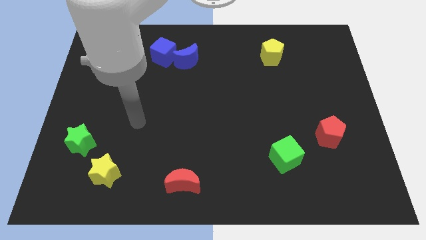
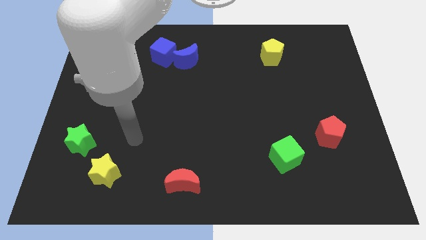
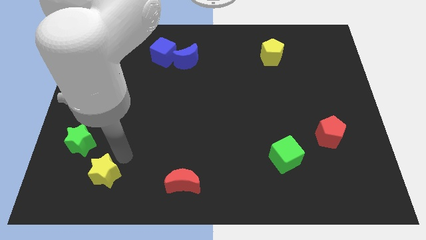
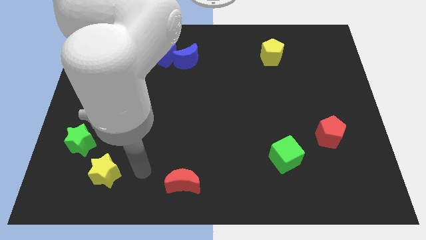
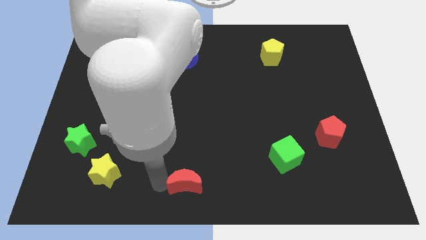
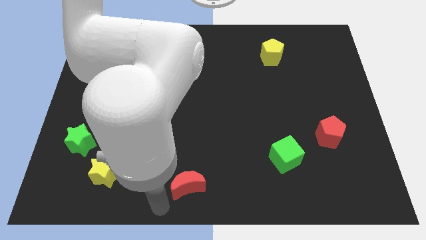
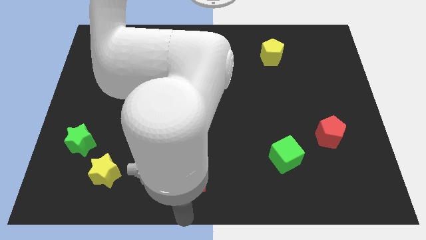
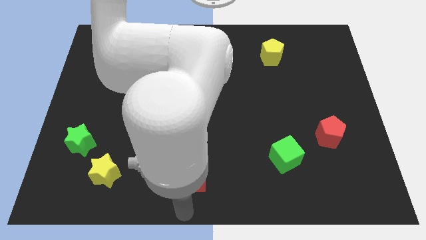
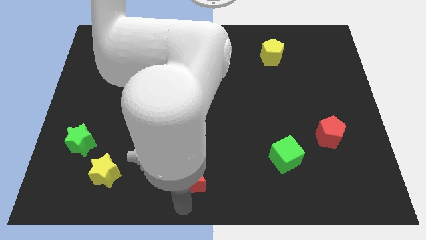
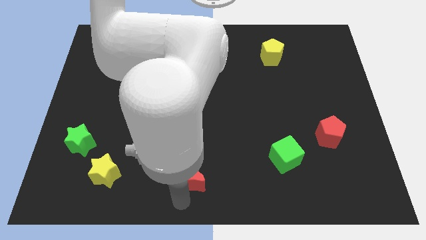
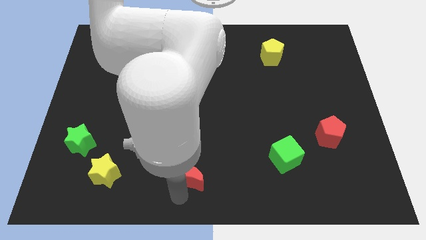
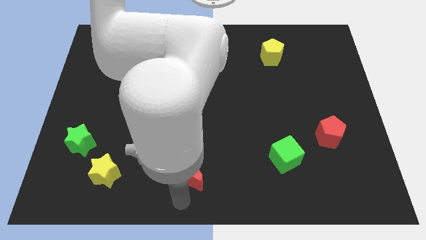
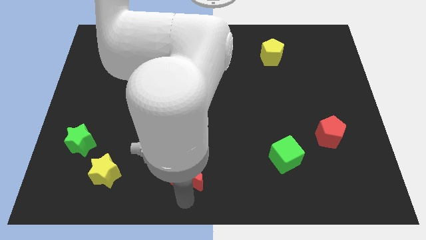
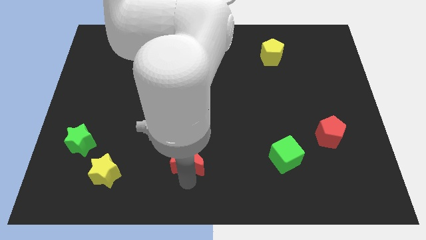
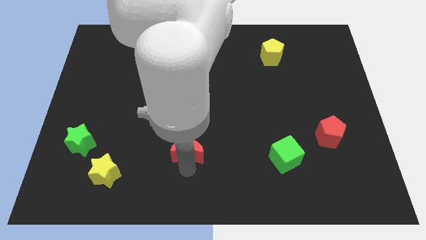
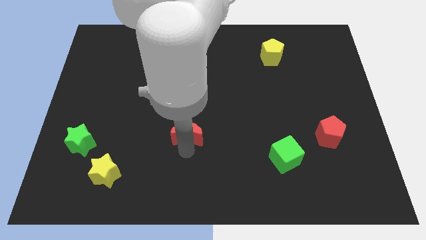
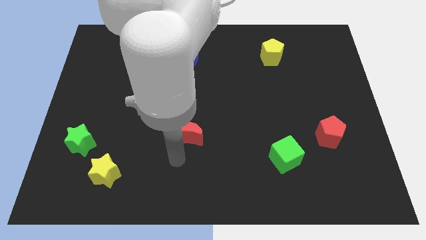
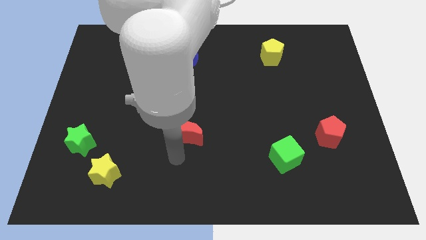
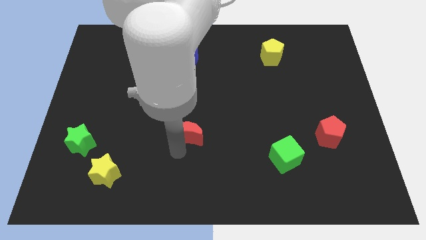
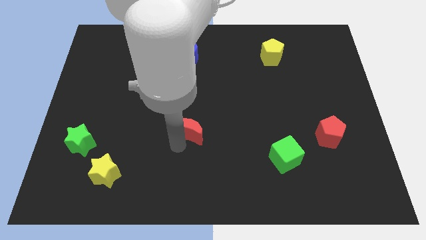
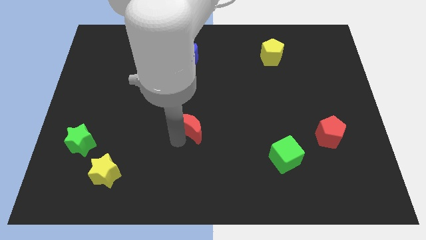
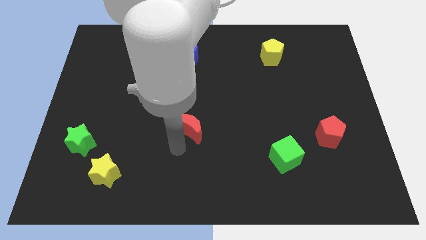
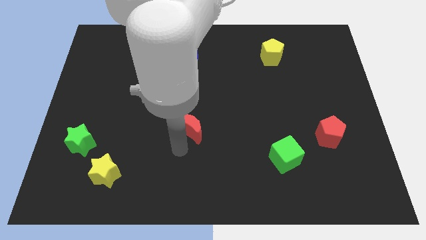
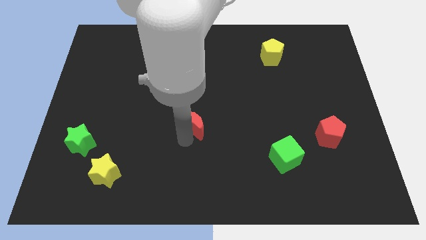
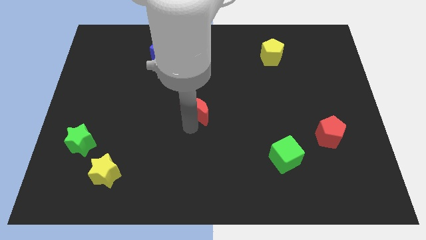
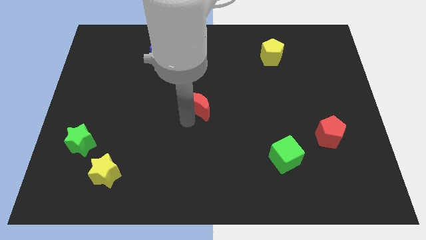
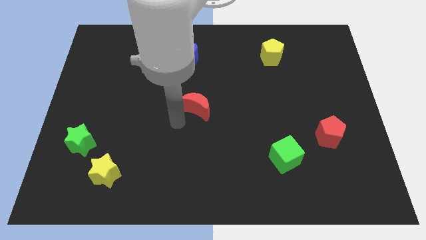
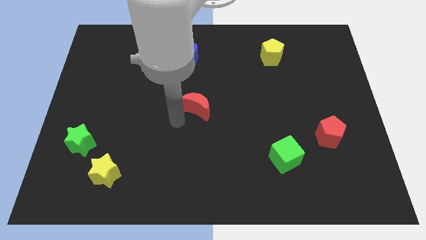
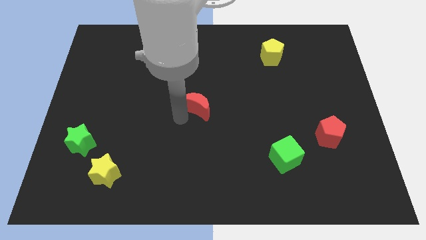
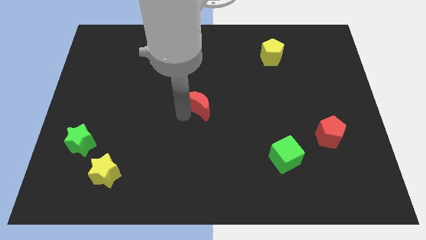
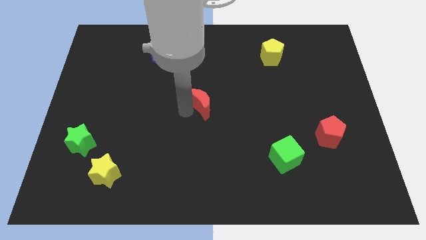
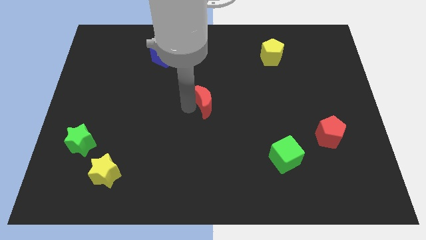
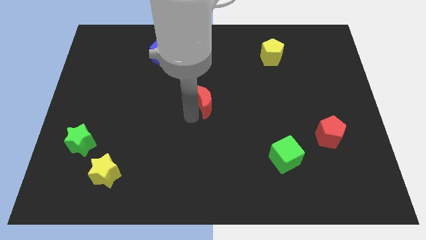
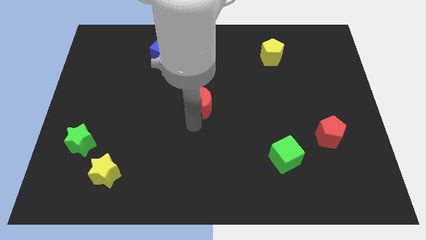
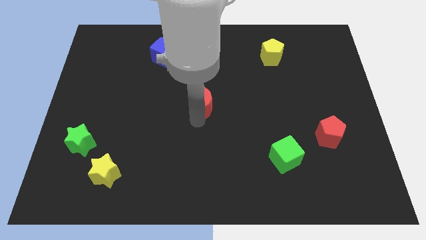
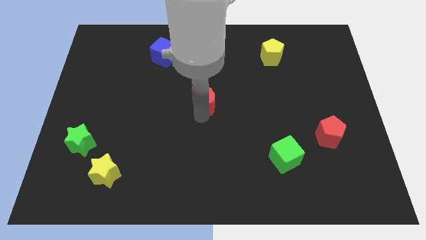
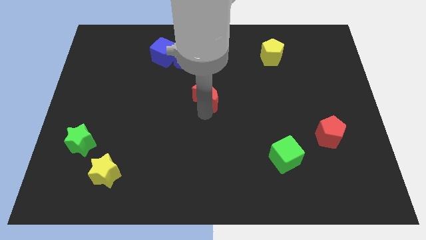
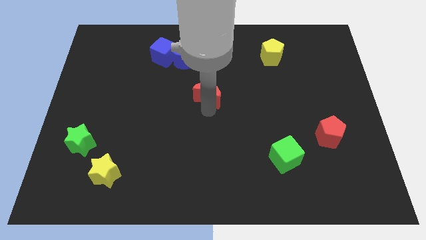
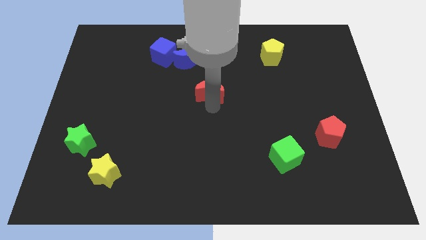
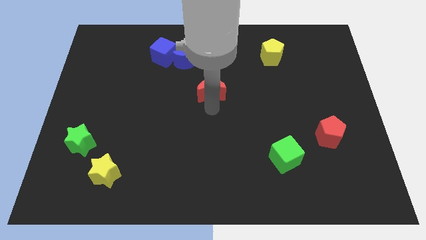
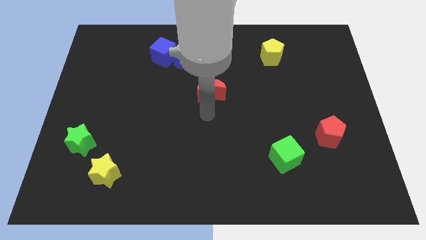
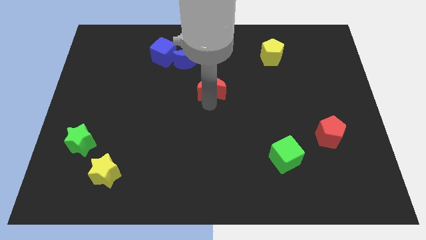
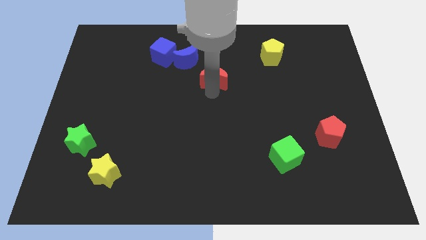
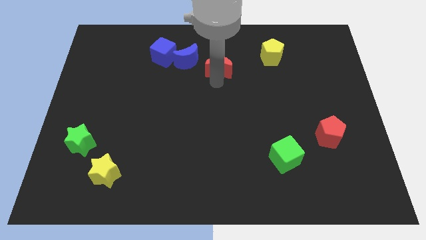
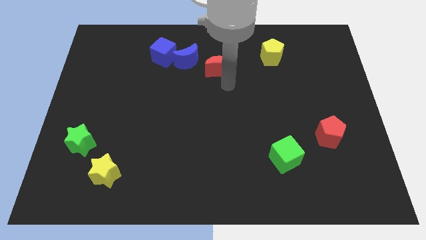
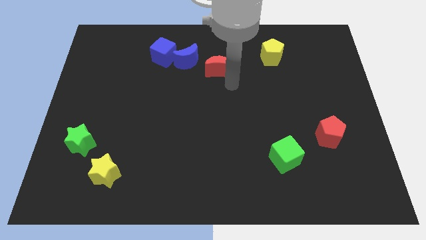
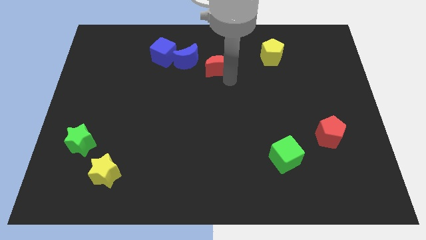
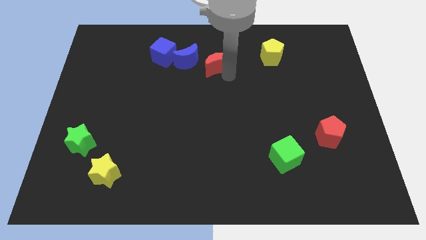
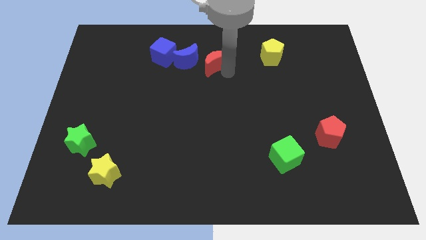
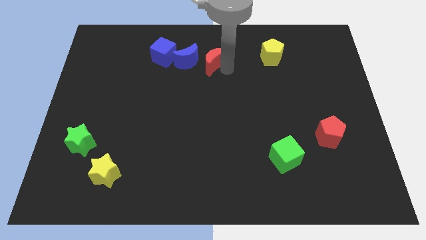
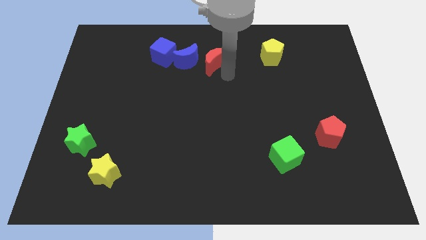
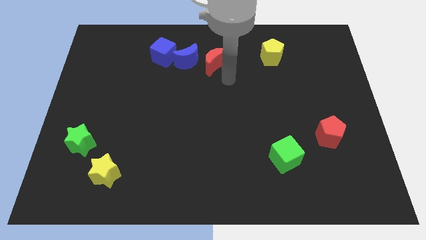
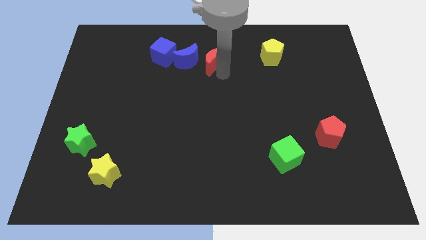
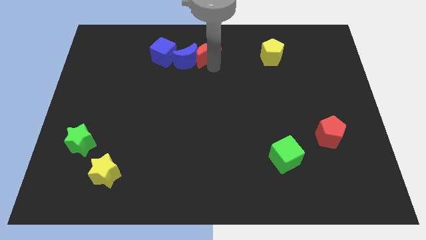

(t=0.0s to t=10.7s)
slide the red moon to the top side

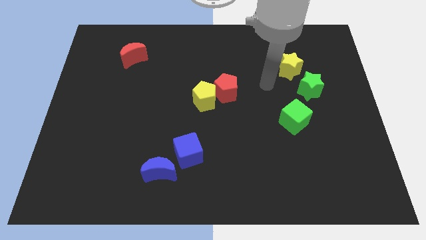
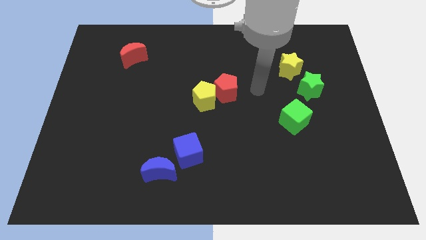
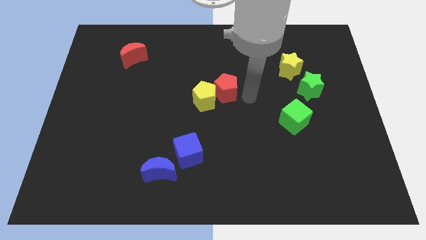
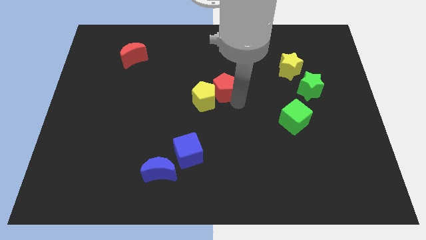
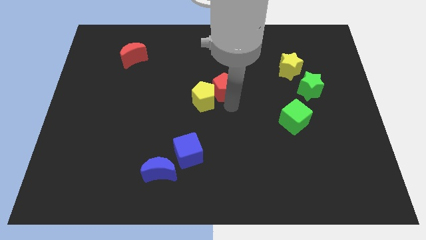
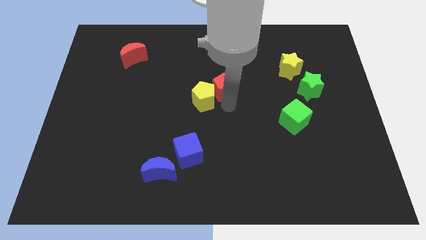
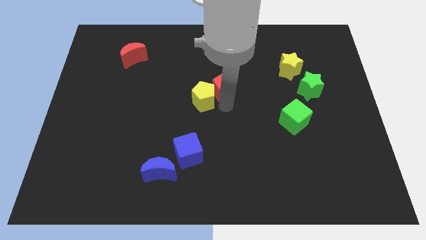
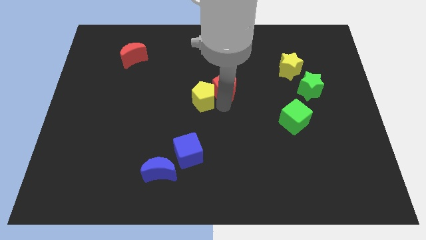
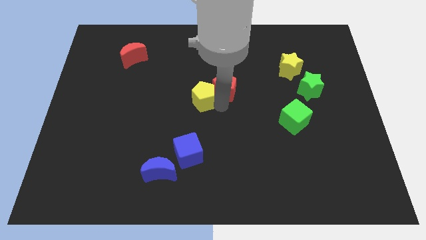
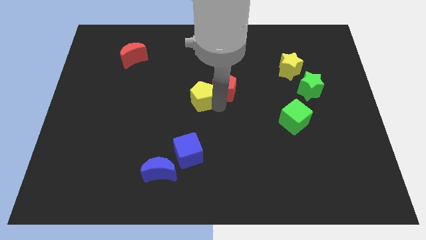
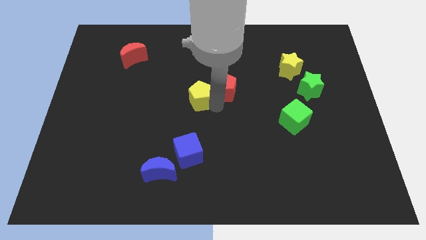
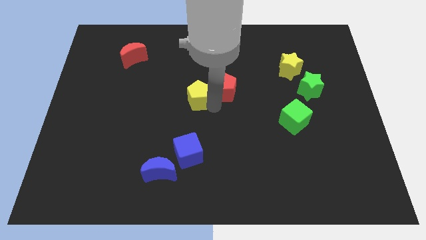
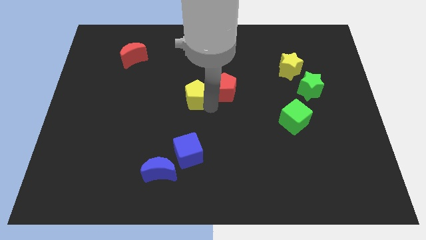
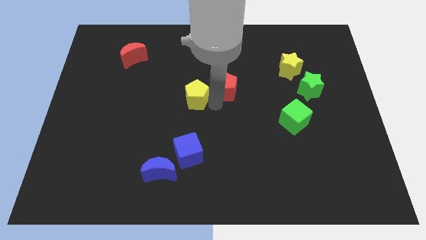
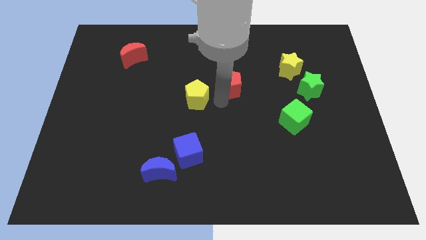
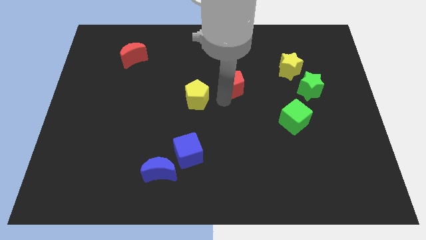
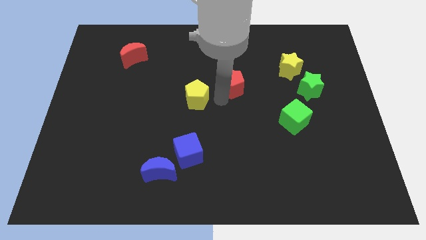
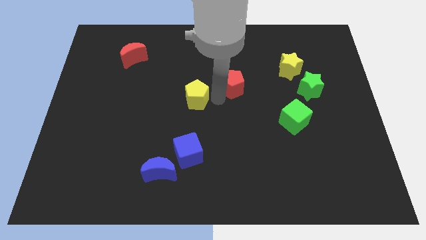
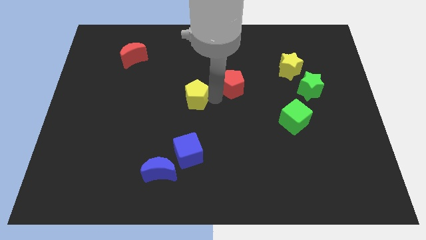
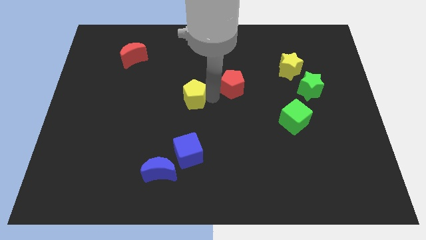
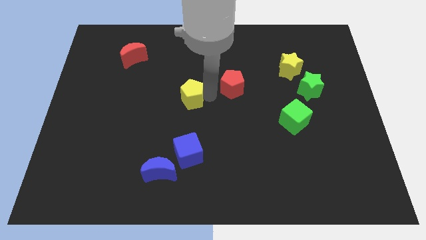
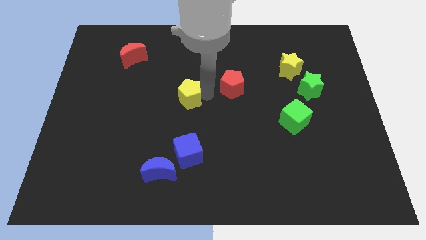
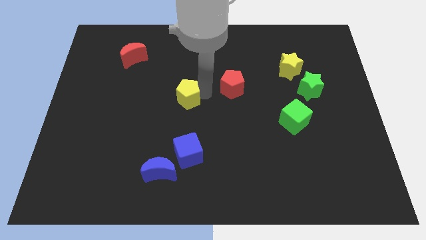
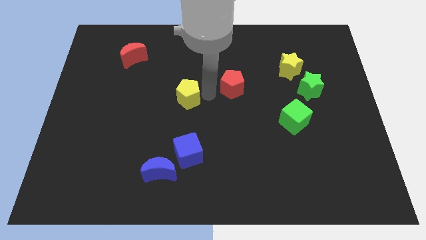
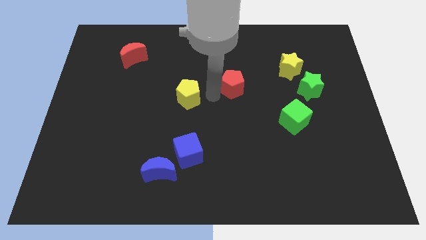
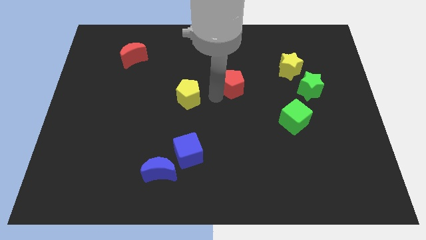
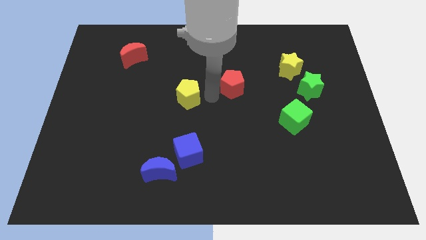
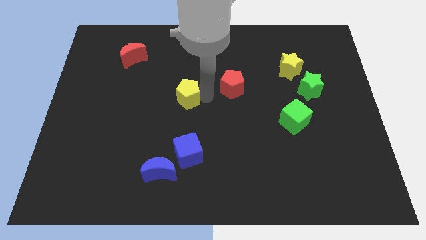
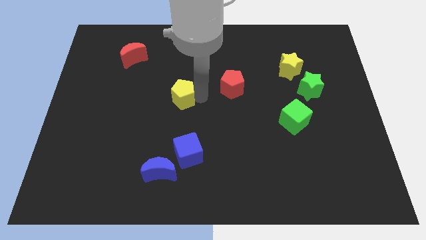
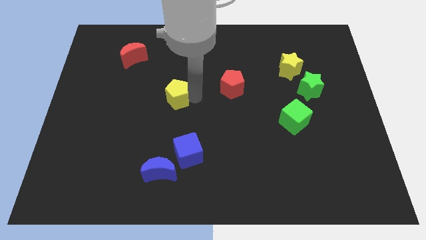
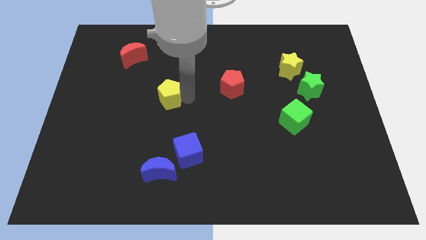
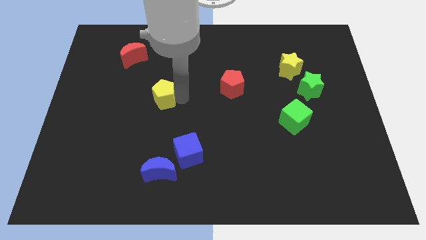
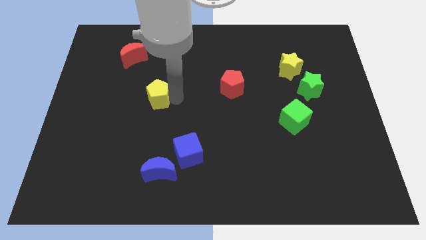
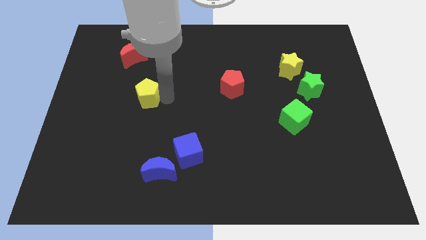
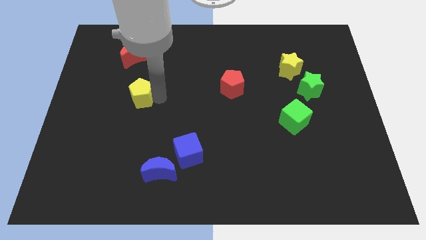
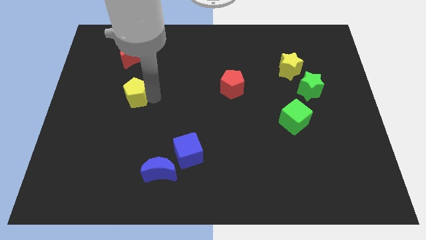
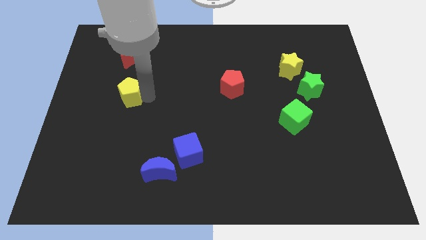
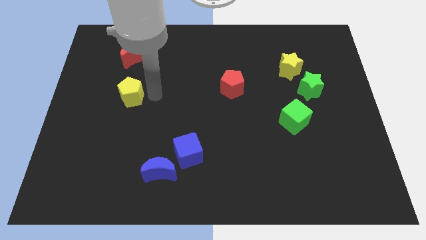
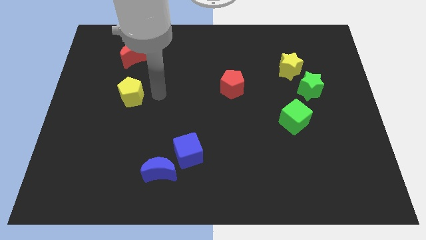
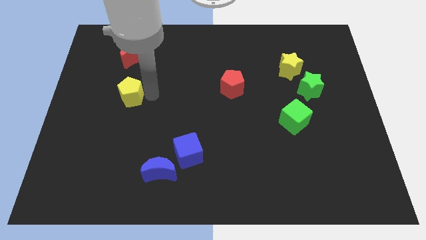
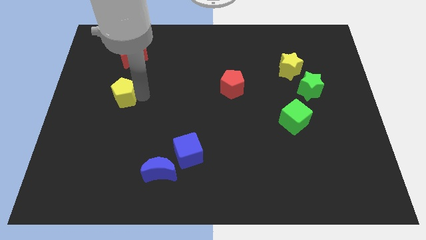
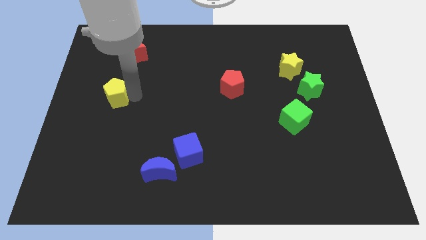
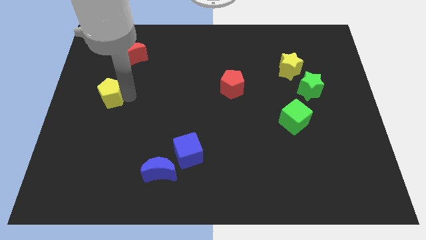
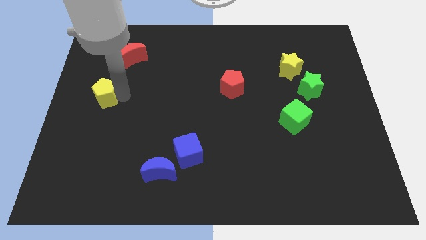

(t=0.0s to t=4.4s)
push the yellow pentagon to the left side
